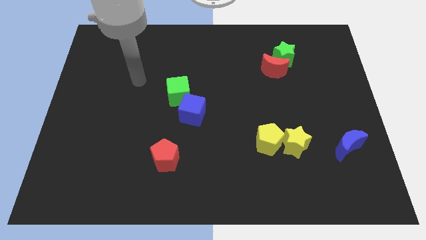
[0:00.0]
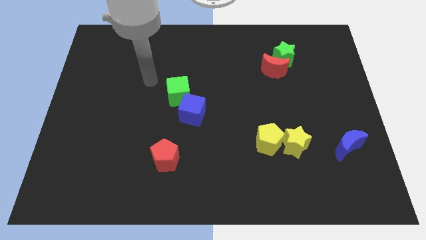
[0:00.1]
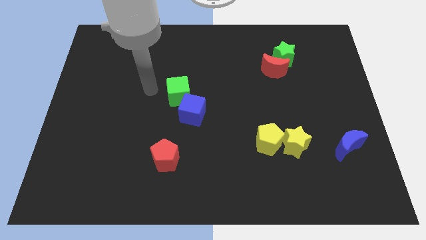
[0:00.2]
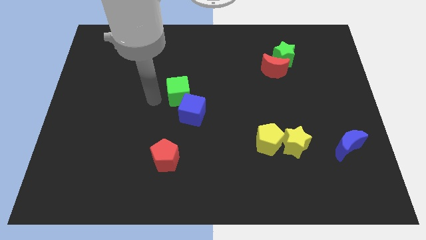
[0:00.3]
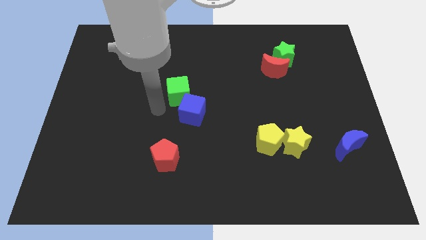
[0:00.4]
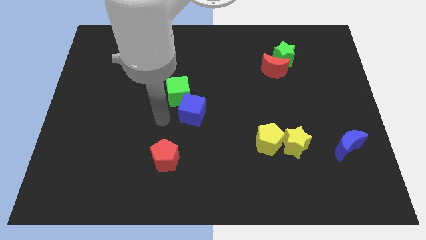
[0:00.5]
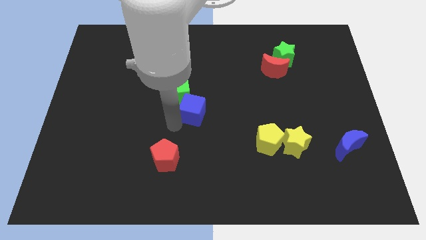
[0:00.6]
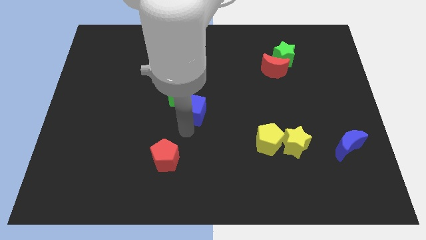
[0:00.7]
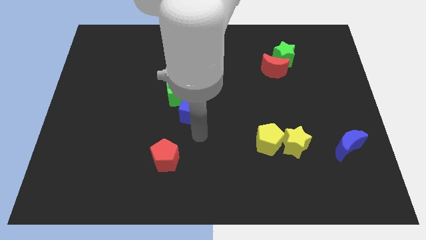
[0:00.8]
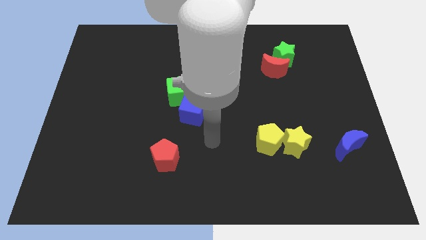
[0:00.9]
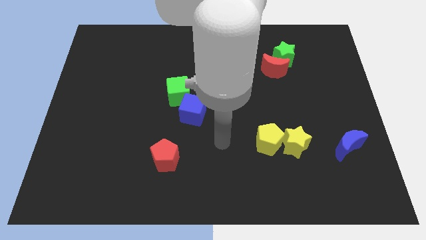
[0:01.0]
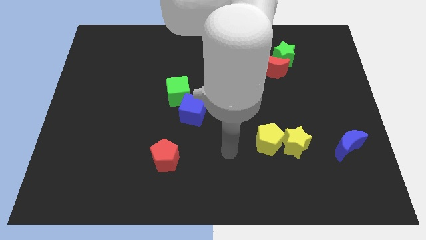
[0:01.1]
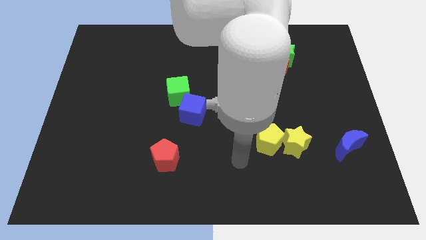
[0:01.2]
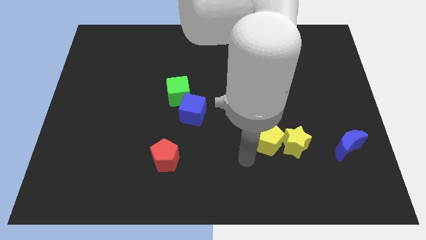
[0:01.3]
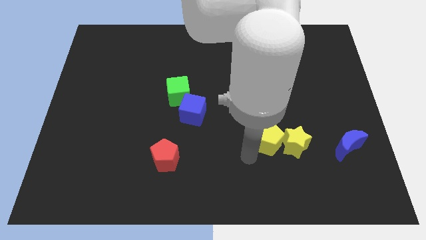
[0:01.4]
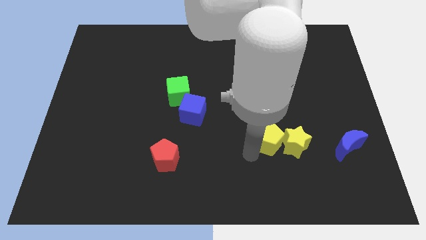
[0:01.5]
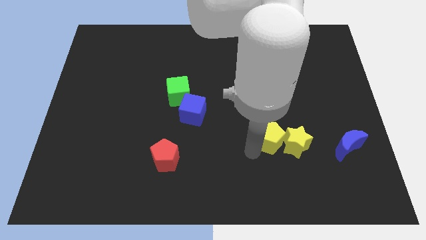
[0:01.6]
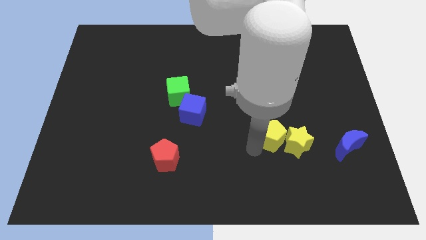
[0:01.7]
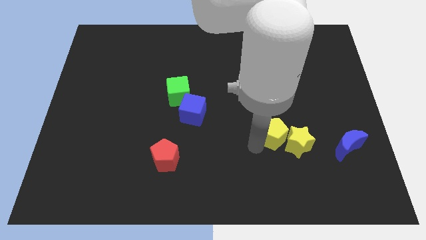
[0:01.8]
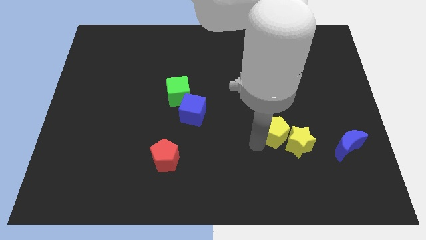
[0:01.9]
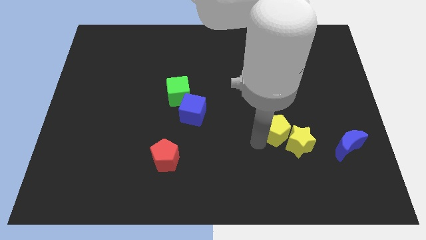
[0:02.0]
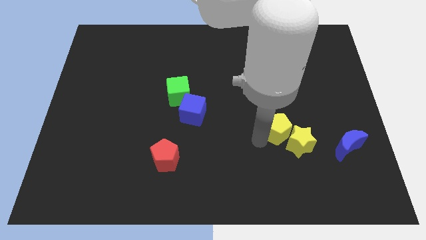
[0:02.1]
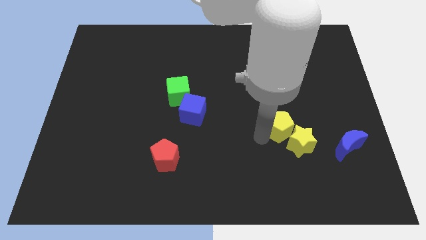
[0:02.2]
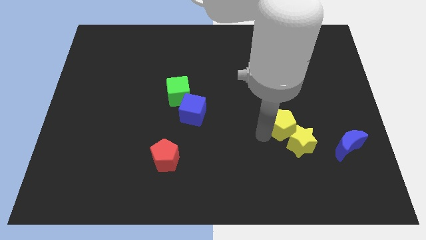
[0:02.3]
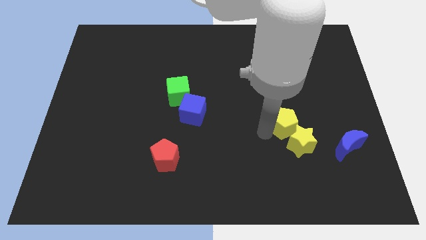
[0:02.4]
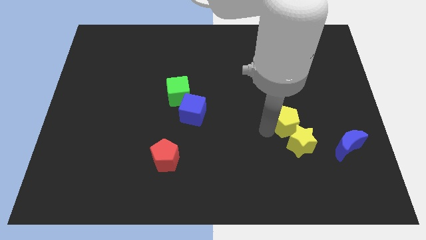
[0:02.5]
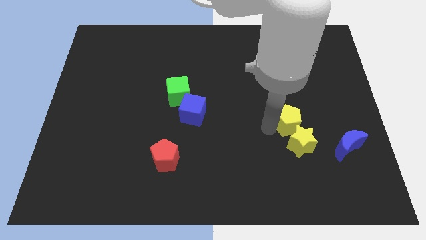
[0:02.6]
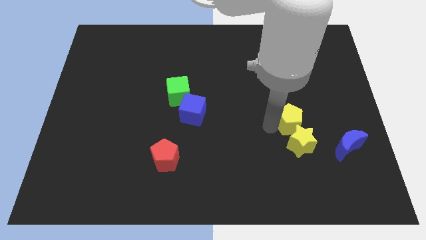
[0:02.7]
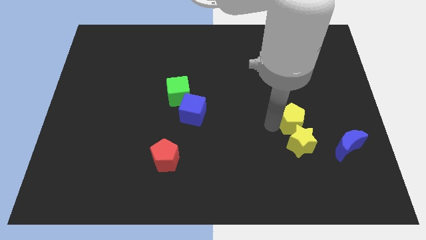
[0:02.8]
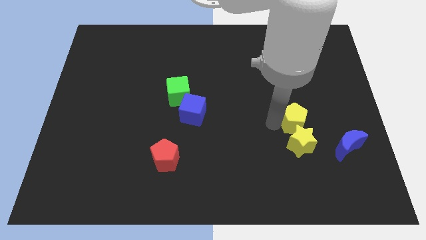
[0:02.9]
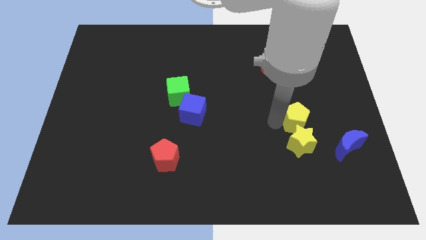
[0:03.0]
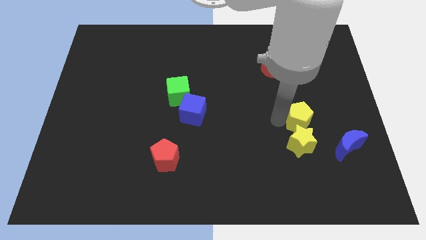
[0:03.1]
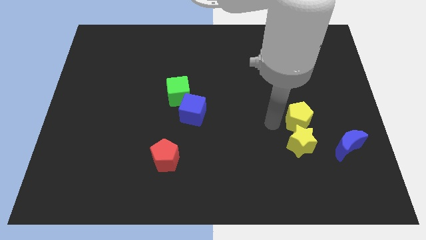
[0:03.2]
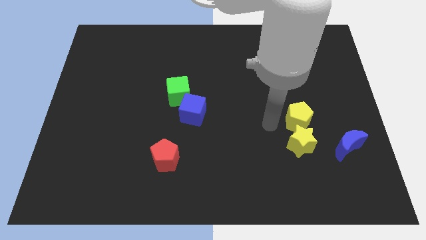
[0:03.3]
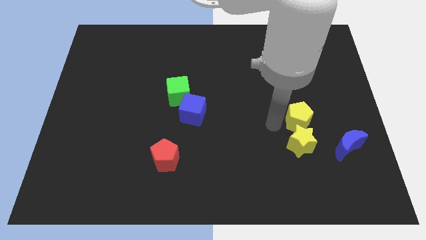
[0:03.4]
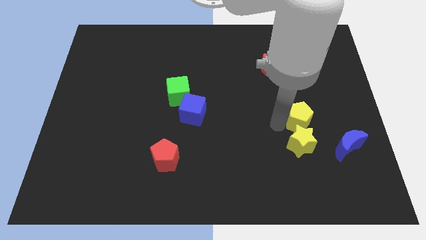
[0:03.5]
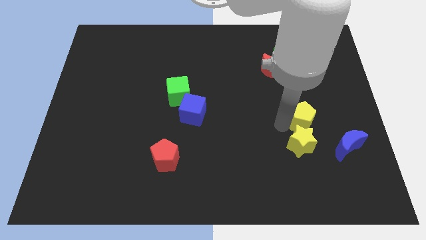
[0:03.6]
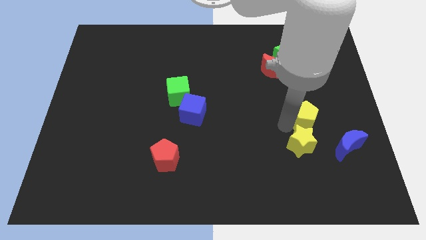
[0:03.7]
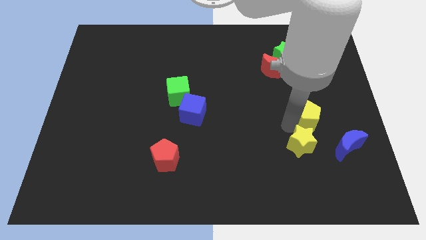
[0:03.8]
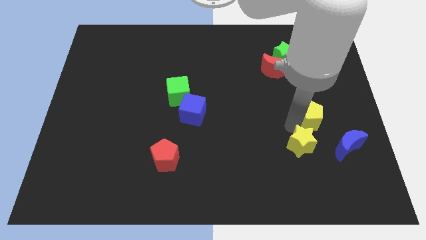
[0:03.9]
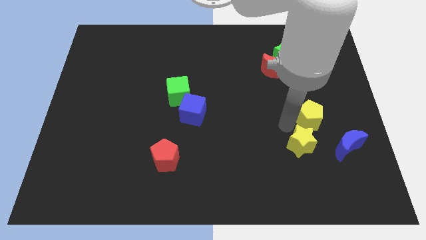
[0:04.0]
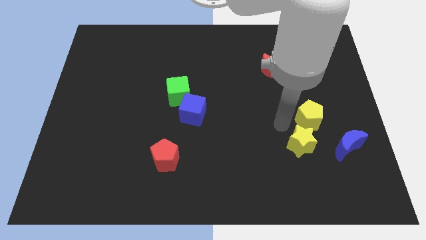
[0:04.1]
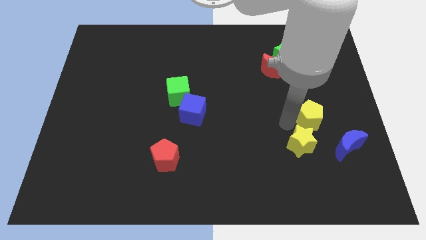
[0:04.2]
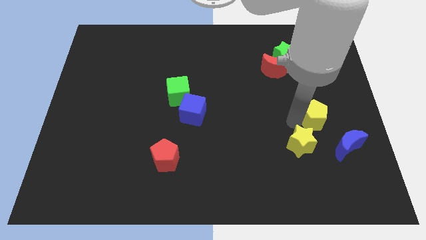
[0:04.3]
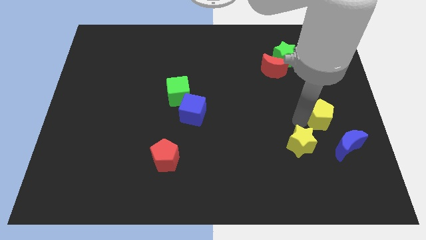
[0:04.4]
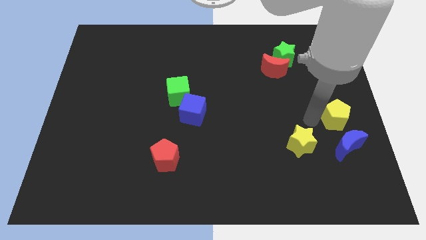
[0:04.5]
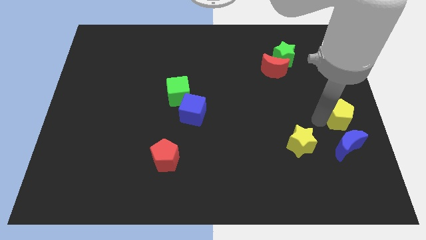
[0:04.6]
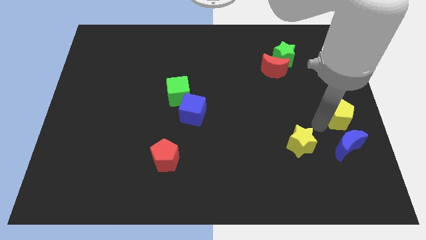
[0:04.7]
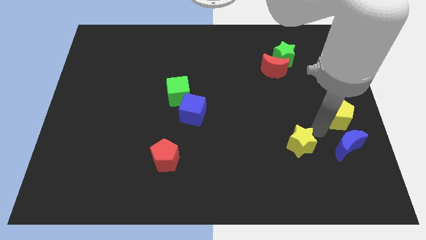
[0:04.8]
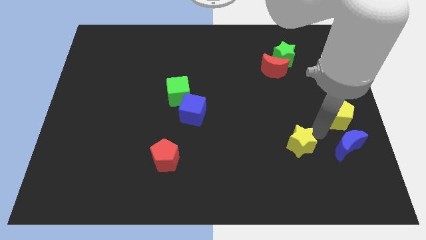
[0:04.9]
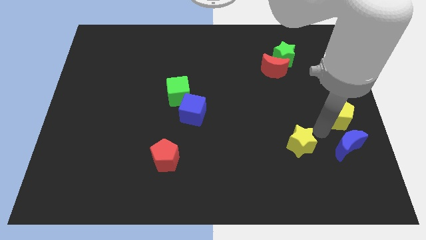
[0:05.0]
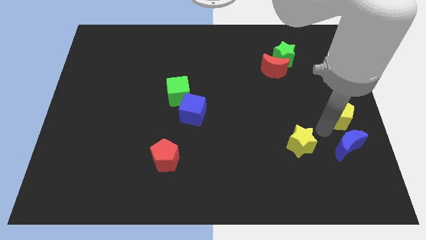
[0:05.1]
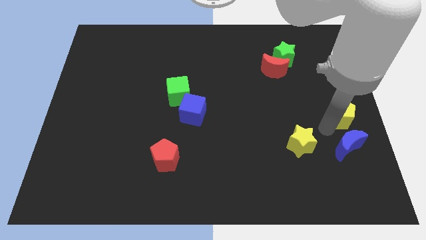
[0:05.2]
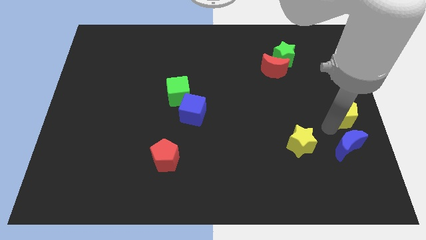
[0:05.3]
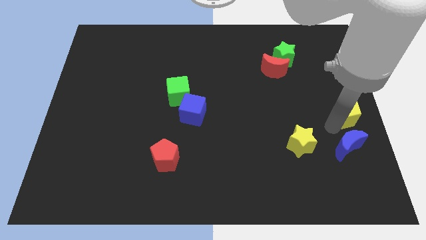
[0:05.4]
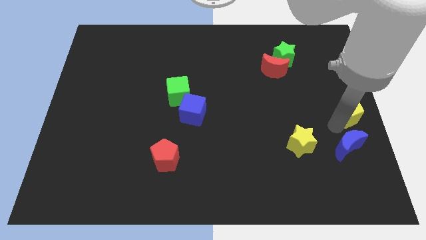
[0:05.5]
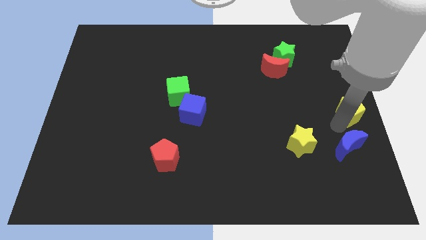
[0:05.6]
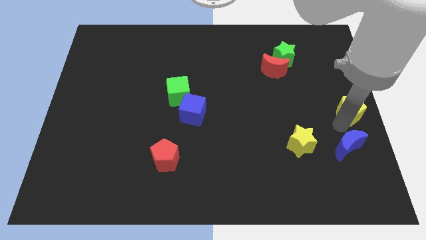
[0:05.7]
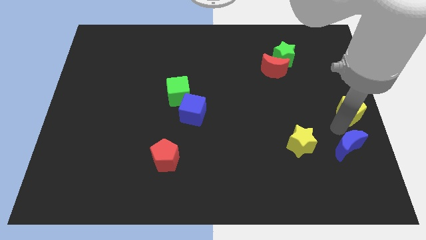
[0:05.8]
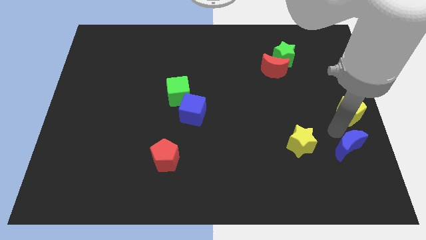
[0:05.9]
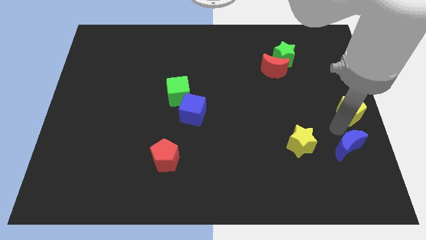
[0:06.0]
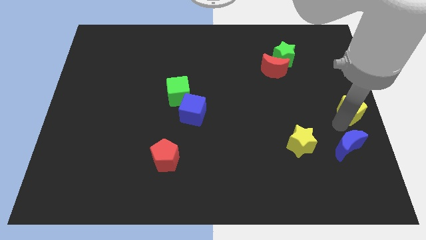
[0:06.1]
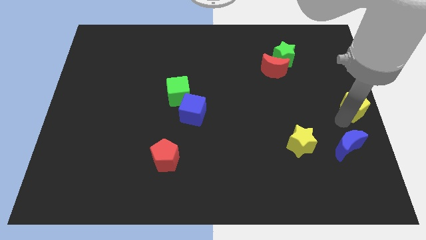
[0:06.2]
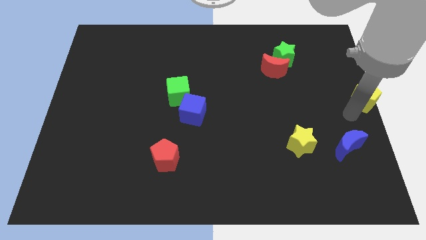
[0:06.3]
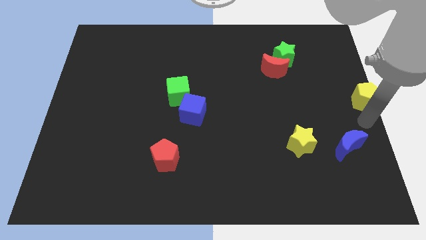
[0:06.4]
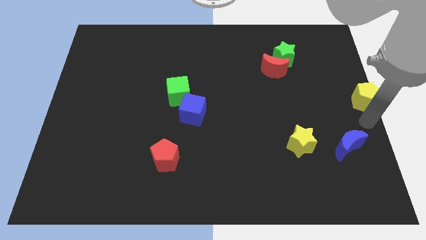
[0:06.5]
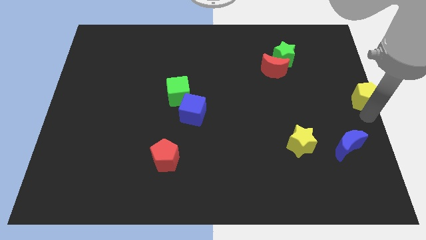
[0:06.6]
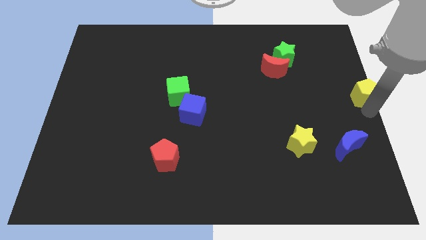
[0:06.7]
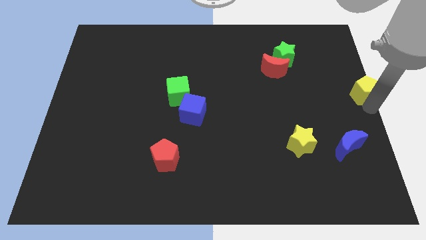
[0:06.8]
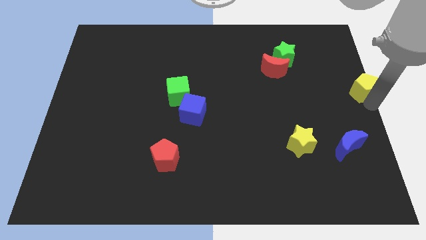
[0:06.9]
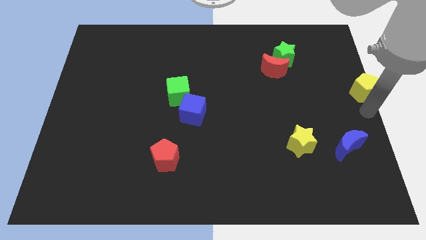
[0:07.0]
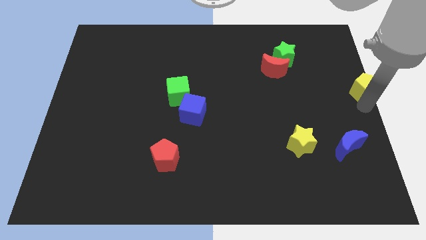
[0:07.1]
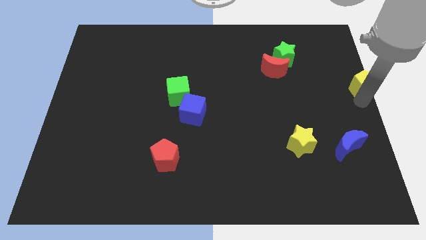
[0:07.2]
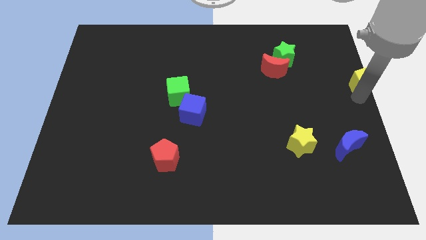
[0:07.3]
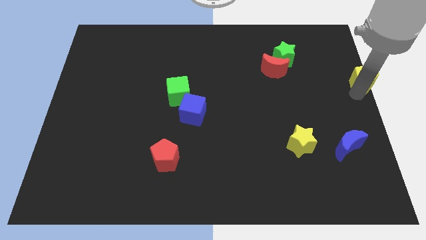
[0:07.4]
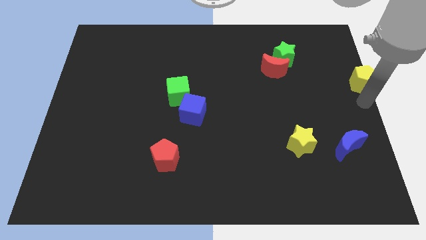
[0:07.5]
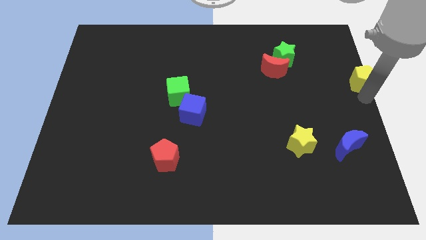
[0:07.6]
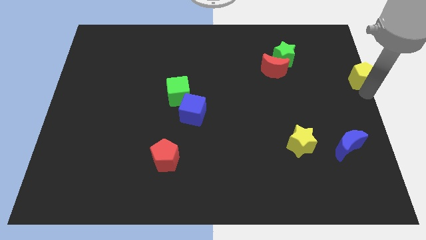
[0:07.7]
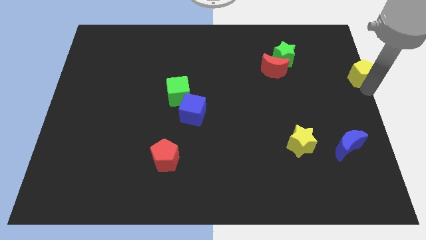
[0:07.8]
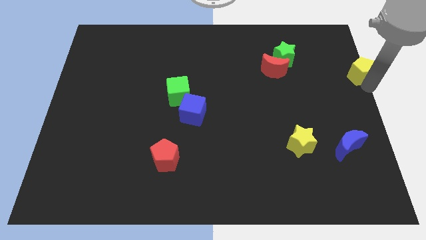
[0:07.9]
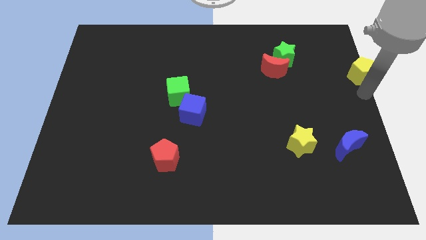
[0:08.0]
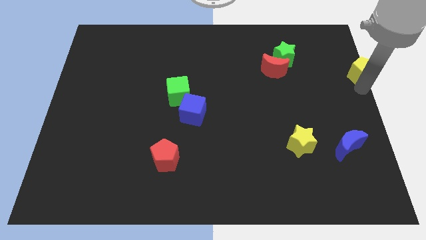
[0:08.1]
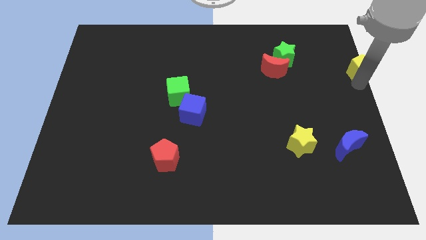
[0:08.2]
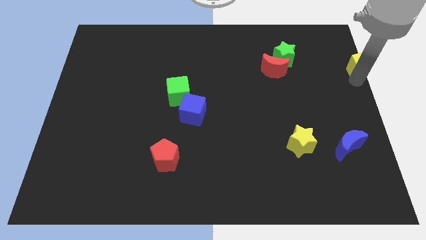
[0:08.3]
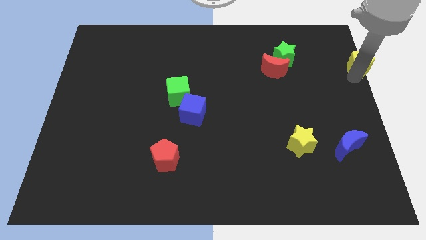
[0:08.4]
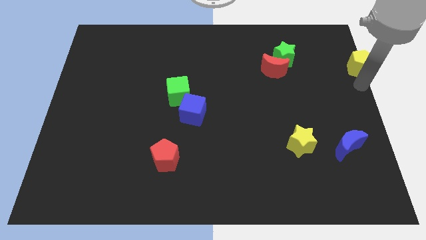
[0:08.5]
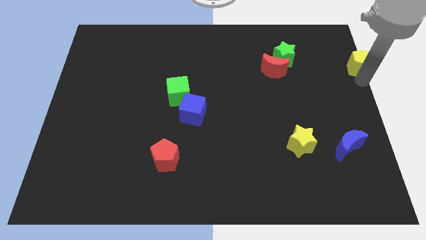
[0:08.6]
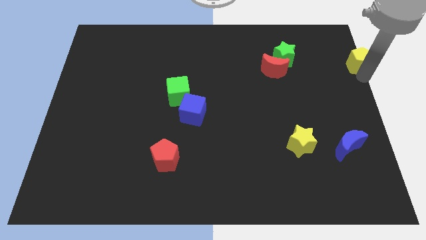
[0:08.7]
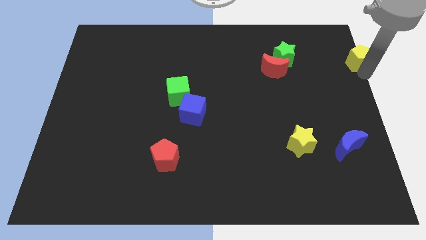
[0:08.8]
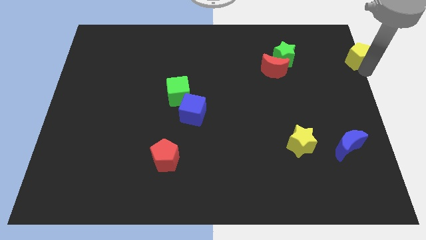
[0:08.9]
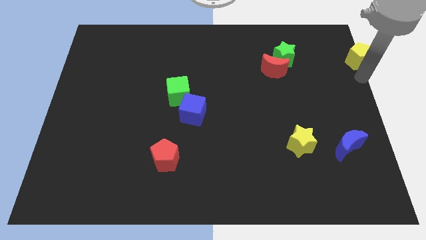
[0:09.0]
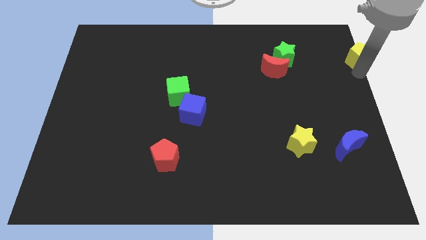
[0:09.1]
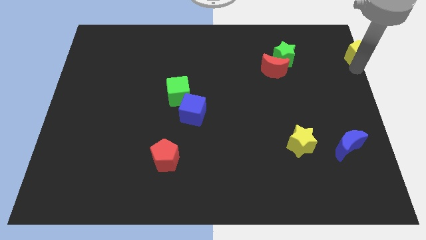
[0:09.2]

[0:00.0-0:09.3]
put the yellow pentagon to the top right of the board
